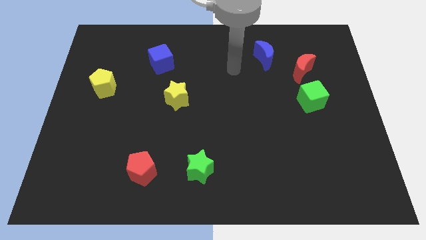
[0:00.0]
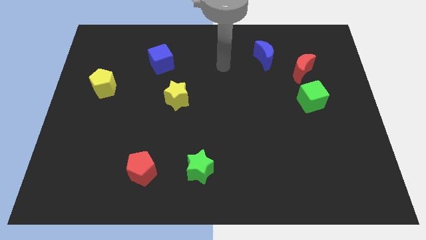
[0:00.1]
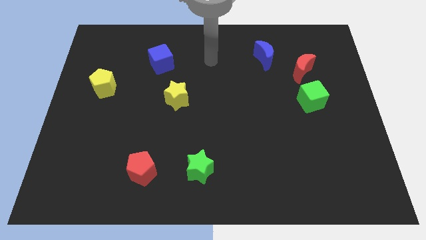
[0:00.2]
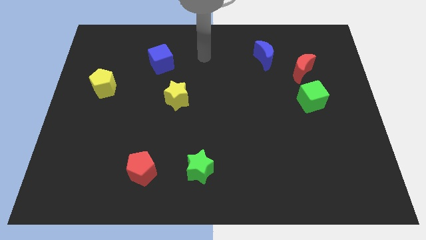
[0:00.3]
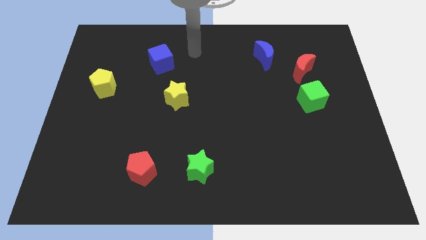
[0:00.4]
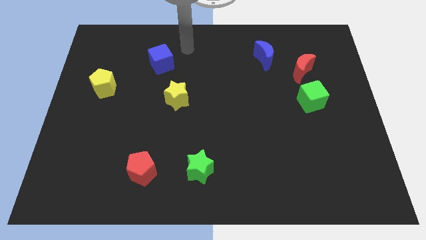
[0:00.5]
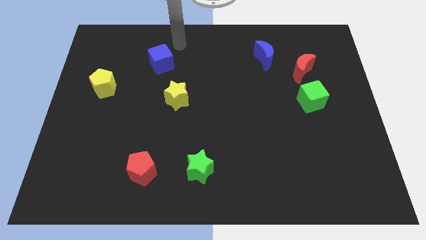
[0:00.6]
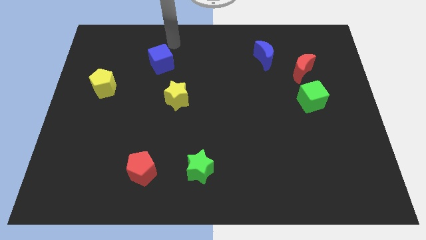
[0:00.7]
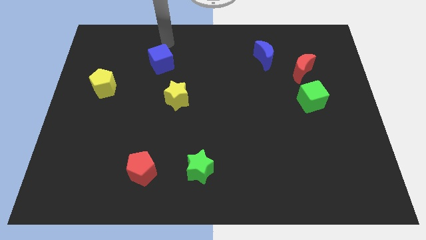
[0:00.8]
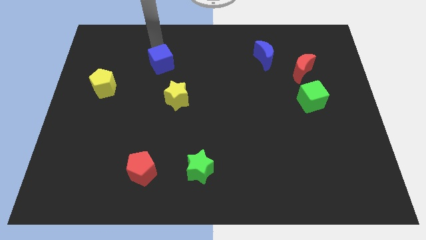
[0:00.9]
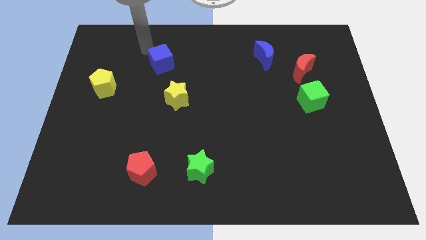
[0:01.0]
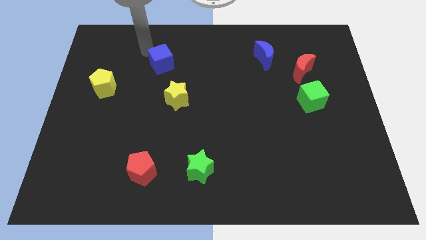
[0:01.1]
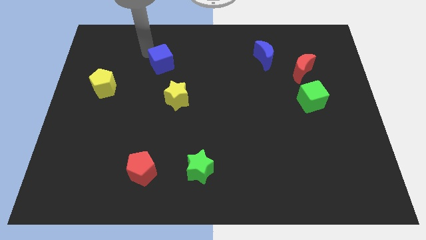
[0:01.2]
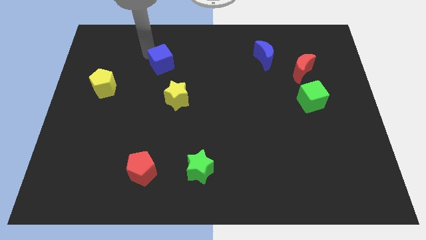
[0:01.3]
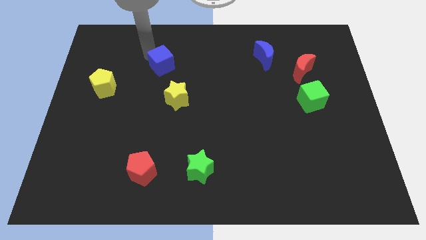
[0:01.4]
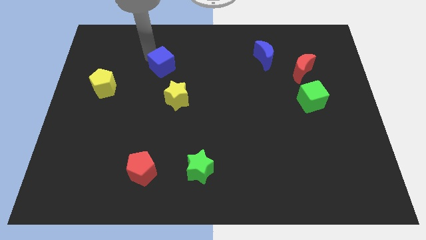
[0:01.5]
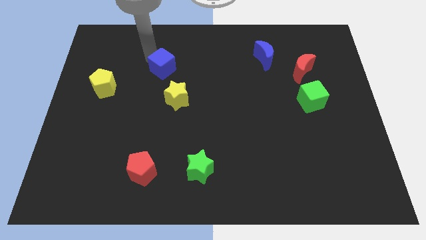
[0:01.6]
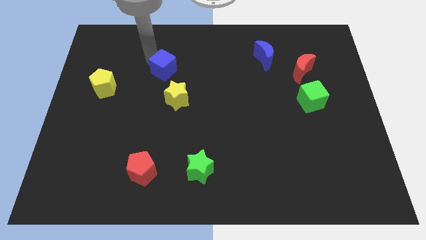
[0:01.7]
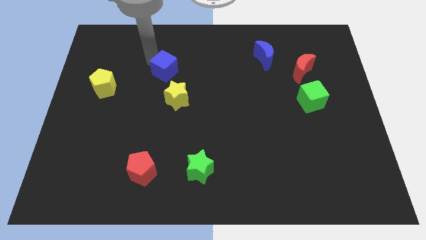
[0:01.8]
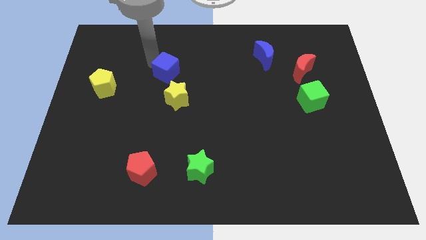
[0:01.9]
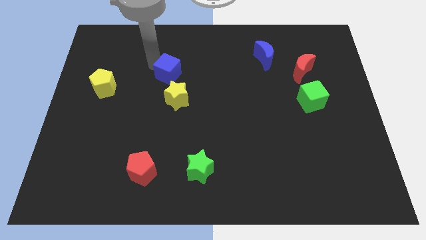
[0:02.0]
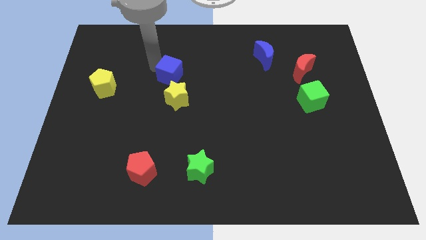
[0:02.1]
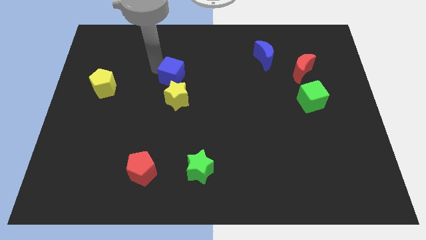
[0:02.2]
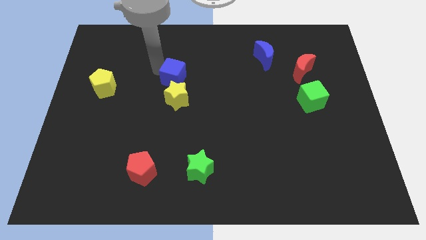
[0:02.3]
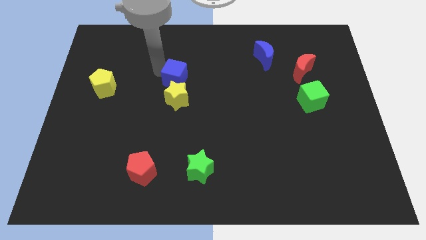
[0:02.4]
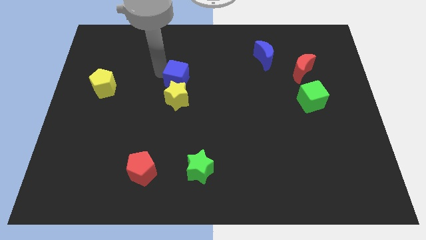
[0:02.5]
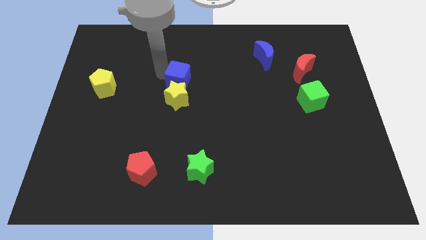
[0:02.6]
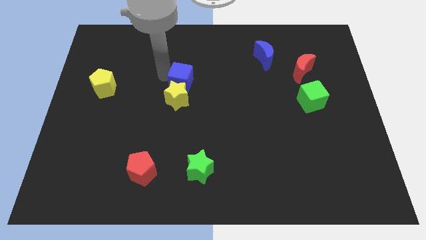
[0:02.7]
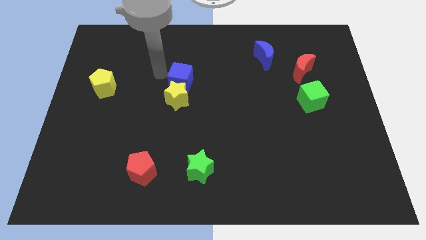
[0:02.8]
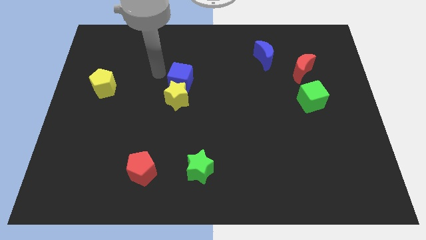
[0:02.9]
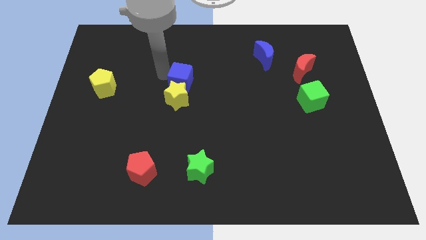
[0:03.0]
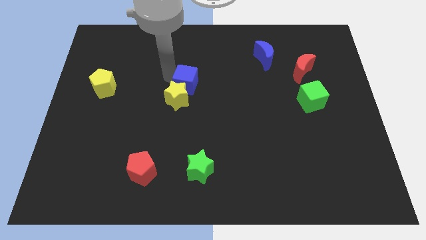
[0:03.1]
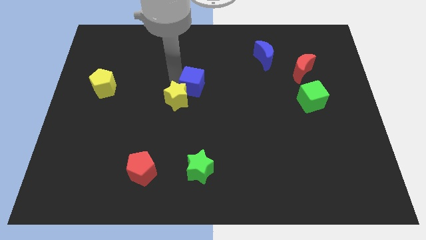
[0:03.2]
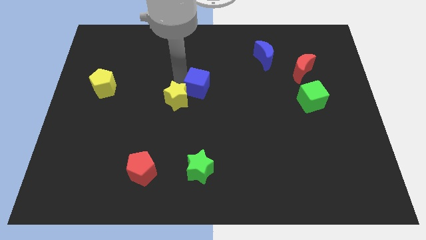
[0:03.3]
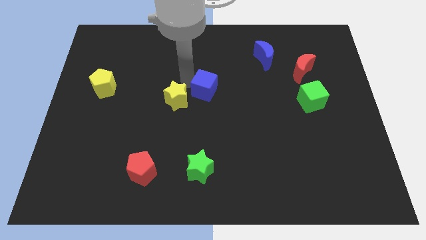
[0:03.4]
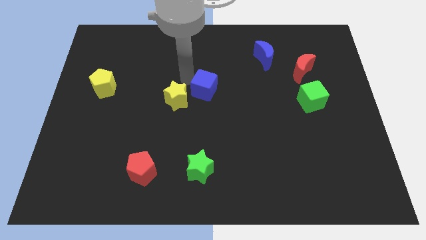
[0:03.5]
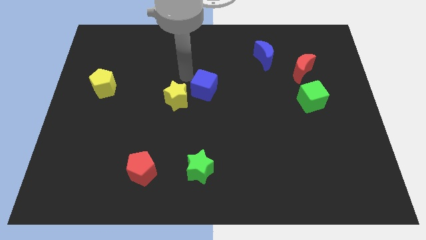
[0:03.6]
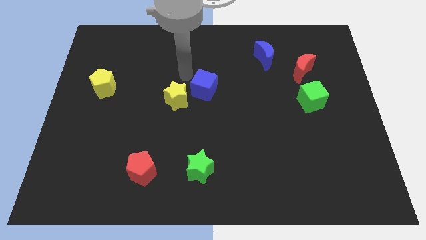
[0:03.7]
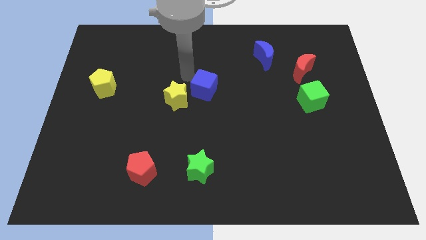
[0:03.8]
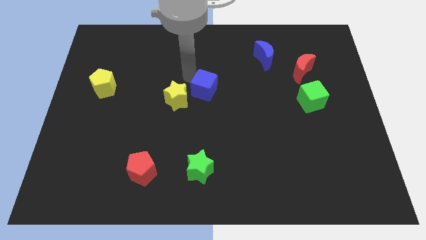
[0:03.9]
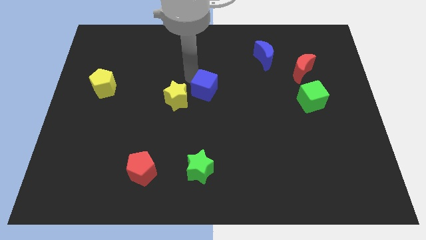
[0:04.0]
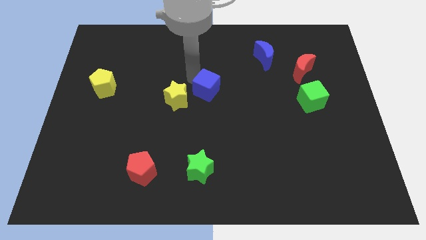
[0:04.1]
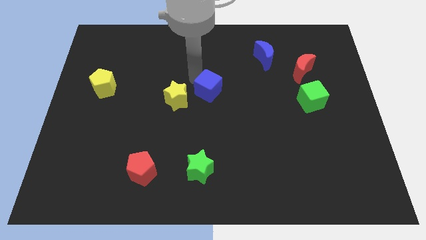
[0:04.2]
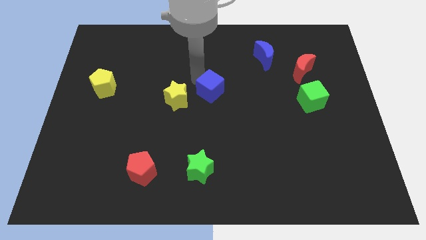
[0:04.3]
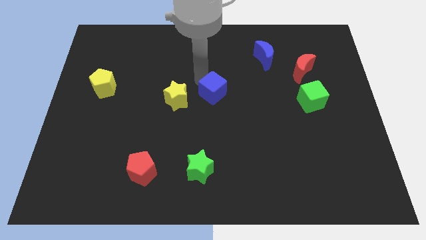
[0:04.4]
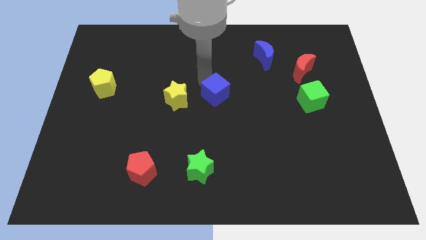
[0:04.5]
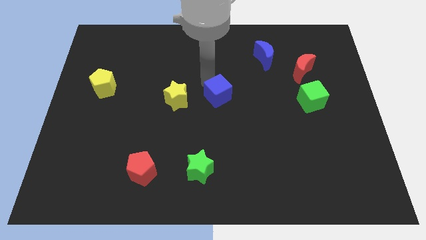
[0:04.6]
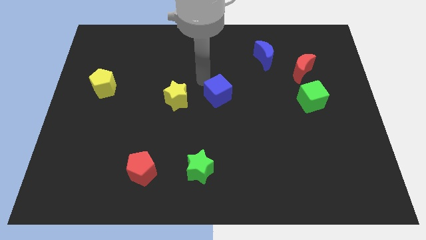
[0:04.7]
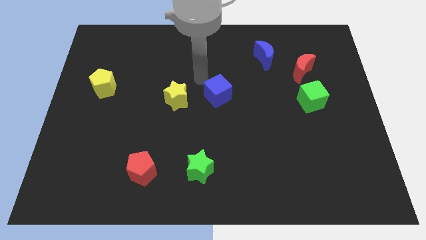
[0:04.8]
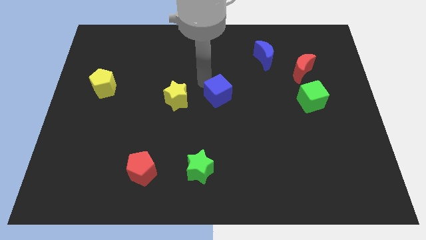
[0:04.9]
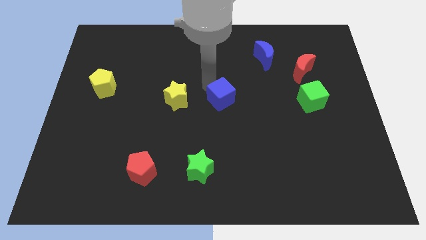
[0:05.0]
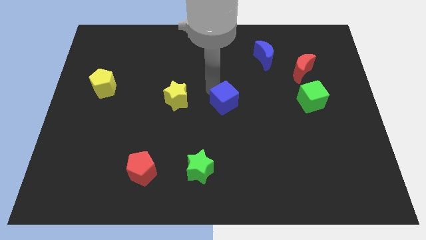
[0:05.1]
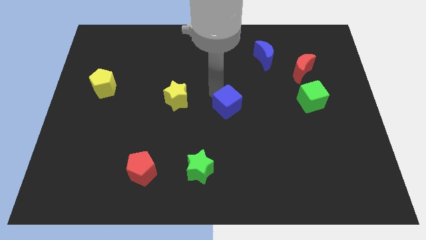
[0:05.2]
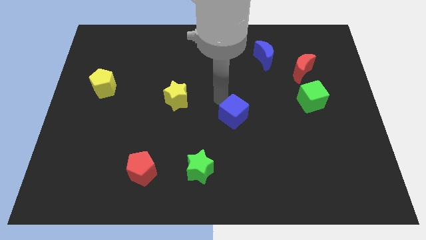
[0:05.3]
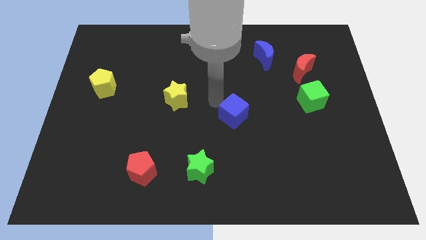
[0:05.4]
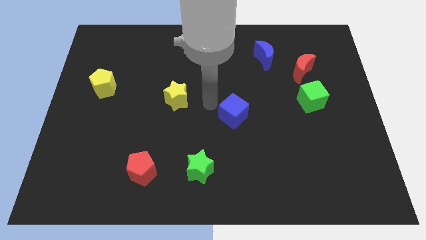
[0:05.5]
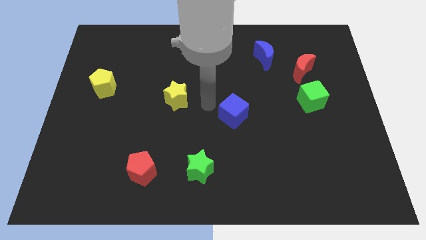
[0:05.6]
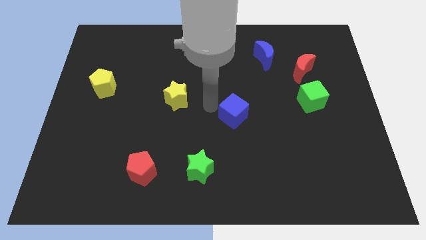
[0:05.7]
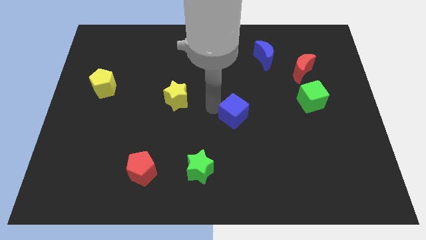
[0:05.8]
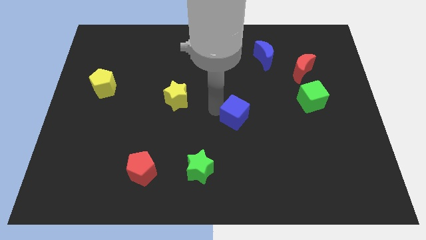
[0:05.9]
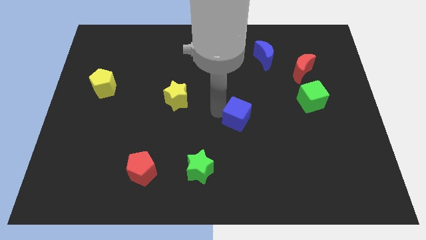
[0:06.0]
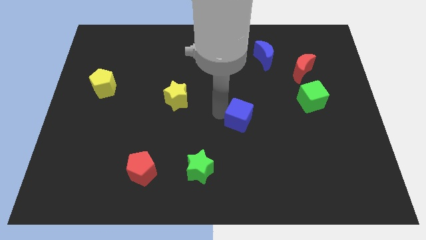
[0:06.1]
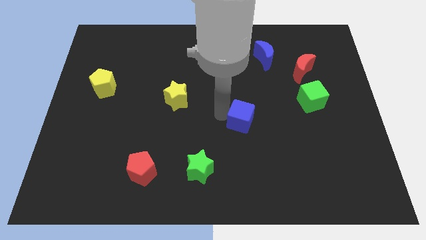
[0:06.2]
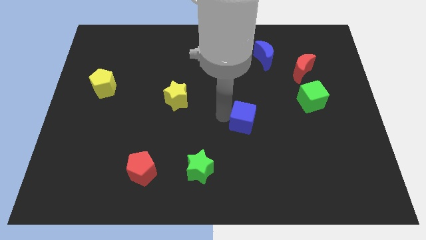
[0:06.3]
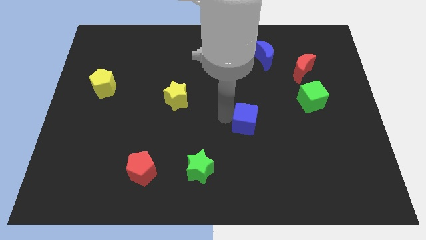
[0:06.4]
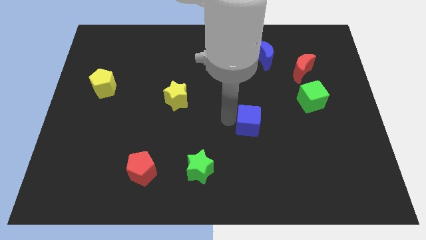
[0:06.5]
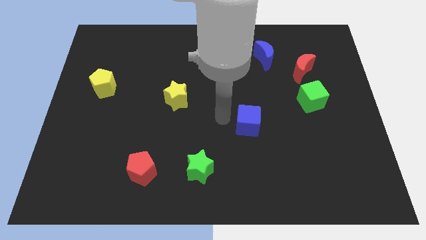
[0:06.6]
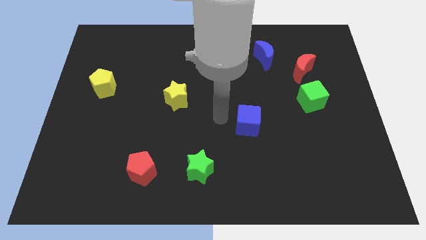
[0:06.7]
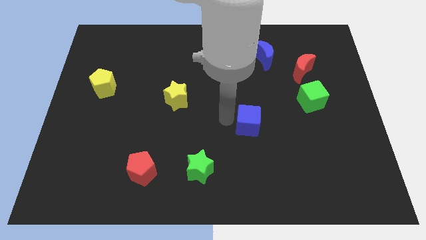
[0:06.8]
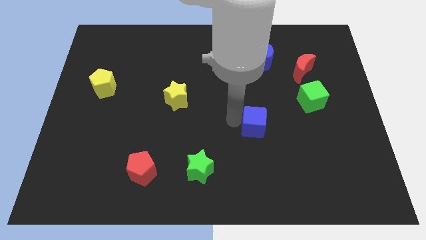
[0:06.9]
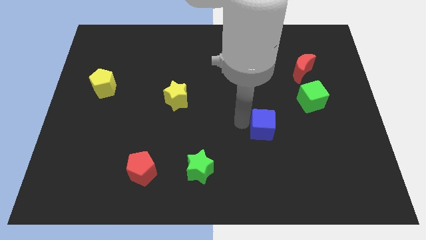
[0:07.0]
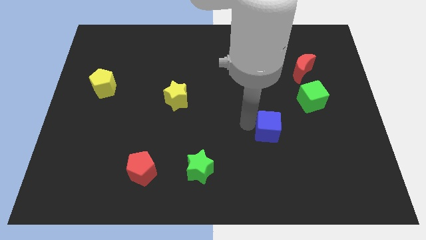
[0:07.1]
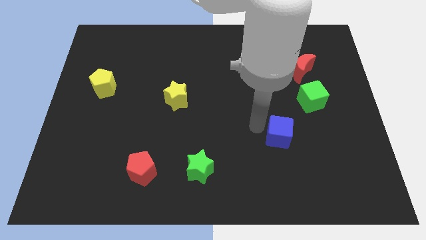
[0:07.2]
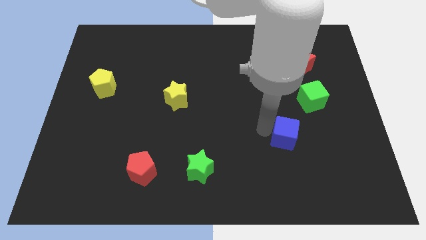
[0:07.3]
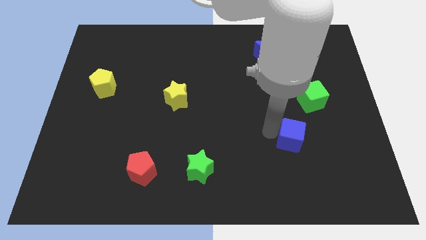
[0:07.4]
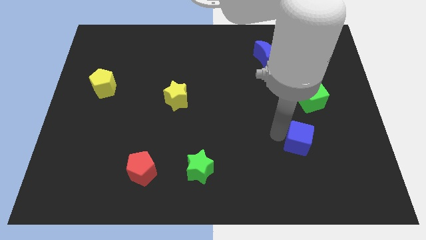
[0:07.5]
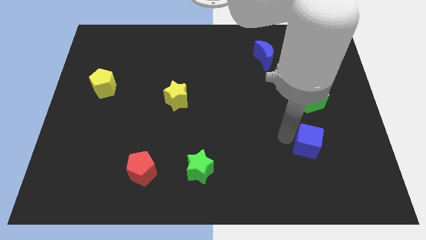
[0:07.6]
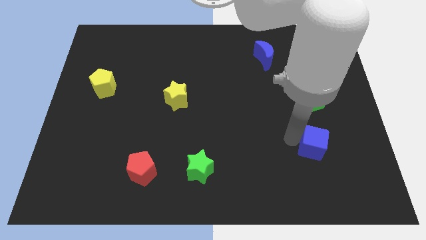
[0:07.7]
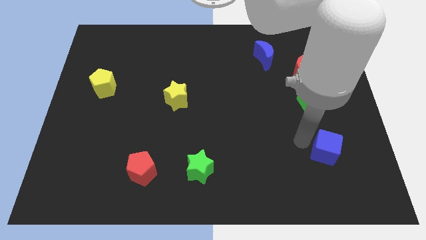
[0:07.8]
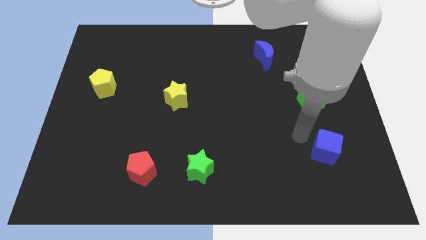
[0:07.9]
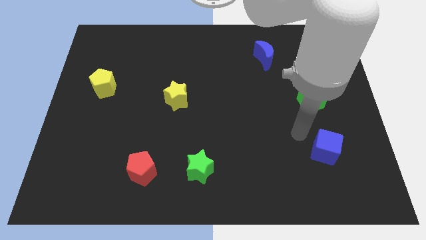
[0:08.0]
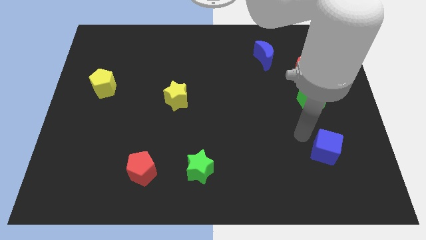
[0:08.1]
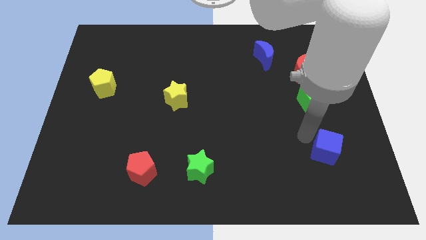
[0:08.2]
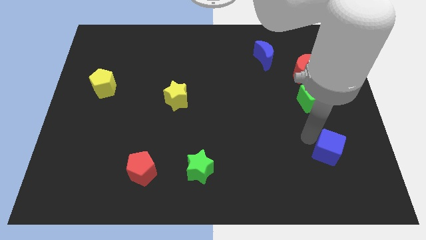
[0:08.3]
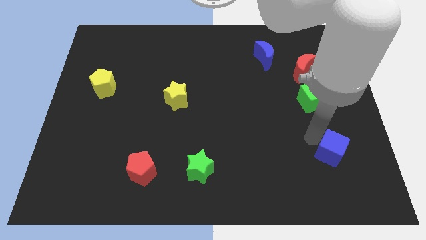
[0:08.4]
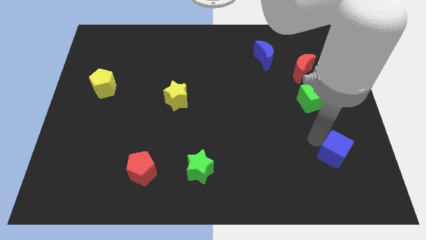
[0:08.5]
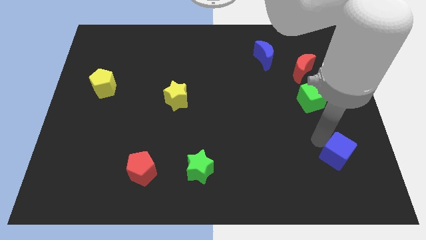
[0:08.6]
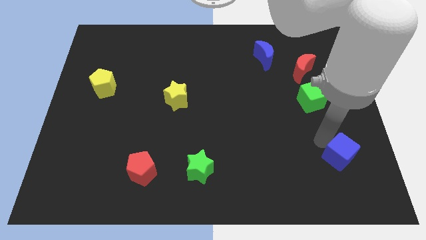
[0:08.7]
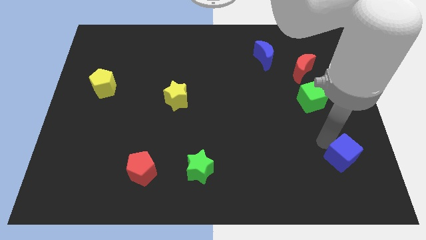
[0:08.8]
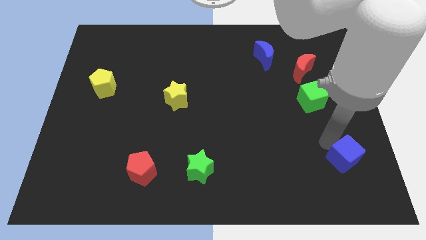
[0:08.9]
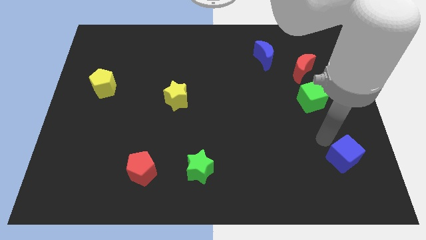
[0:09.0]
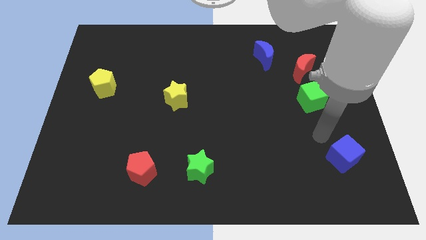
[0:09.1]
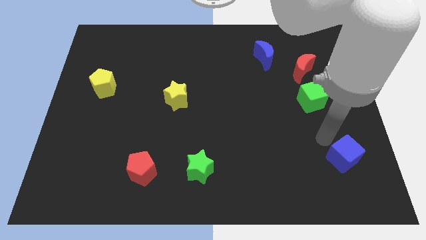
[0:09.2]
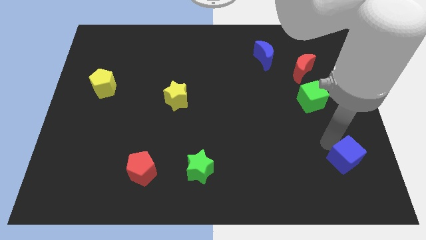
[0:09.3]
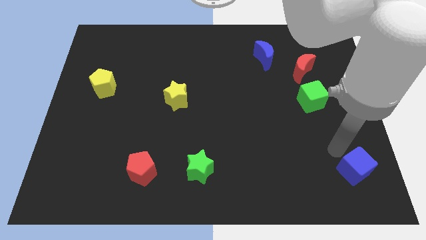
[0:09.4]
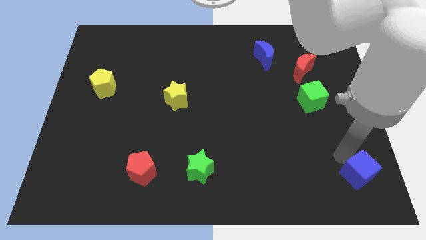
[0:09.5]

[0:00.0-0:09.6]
put the blue cube to the bottom right corner
